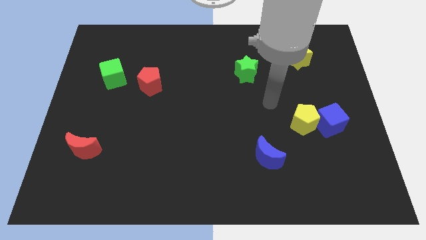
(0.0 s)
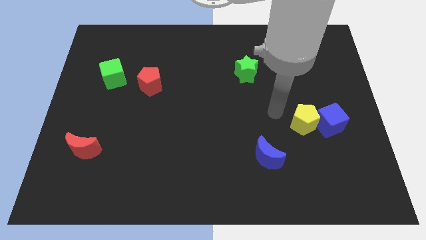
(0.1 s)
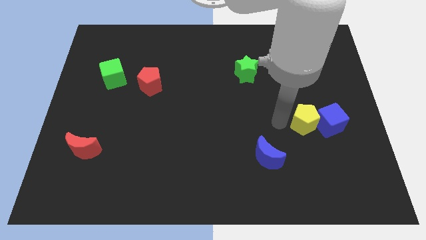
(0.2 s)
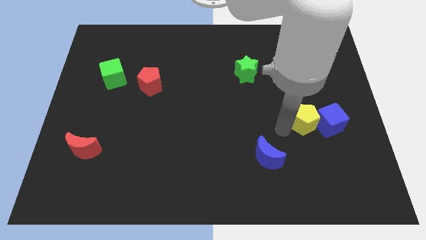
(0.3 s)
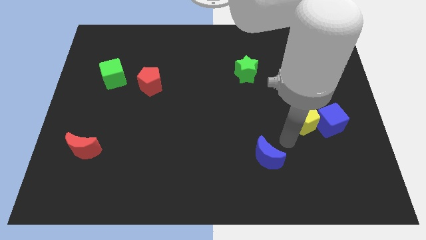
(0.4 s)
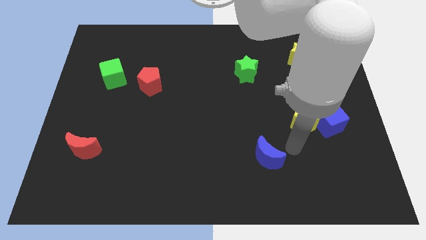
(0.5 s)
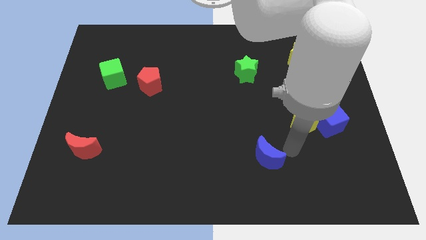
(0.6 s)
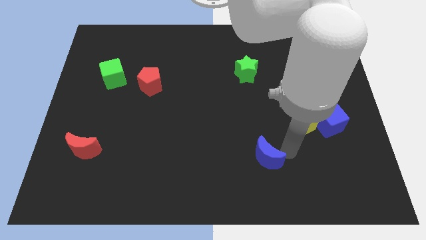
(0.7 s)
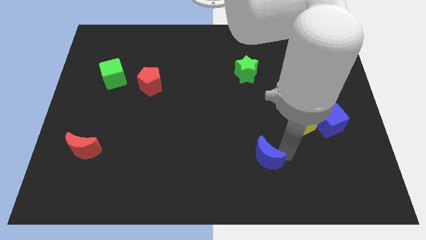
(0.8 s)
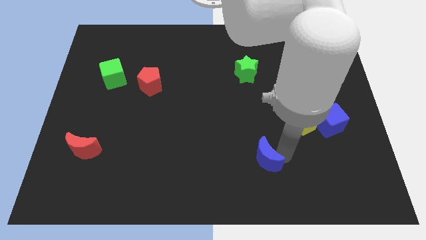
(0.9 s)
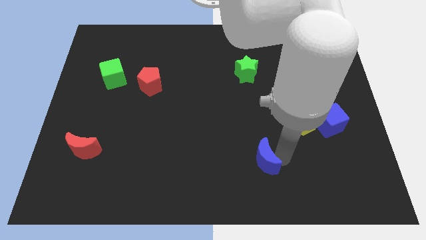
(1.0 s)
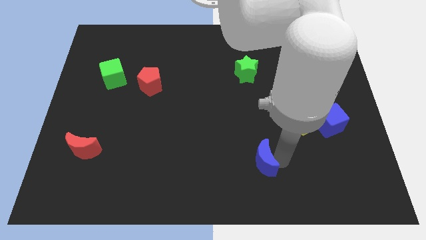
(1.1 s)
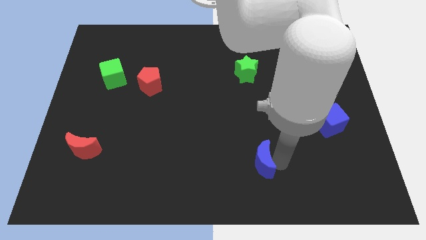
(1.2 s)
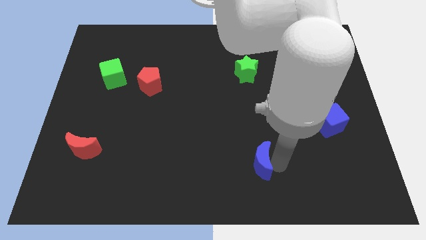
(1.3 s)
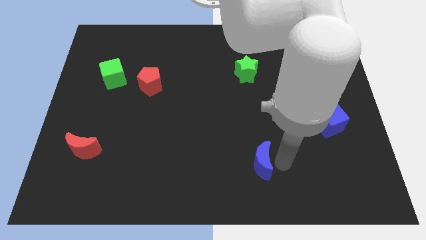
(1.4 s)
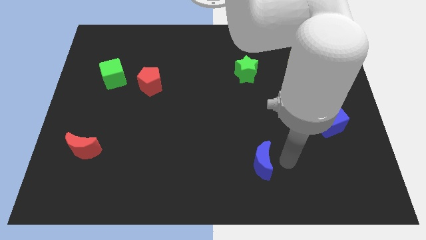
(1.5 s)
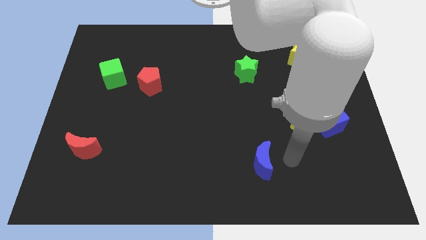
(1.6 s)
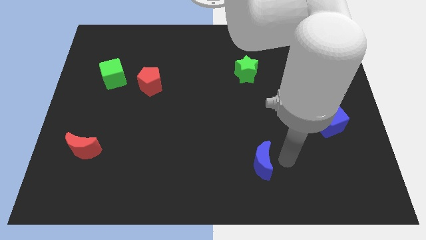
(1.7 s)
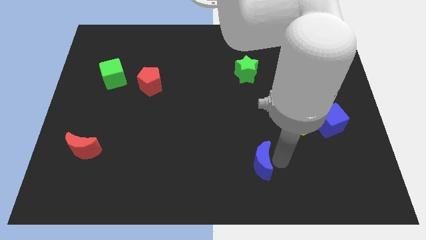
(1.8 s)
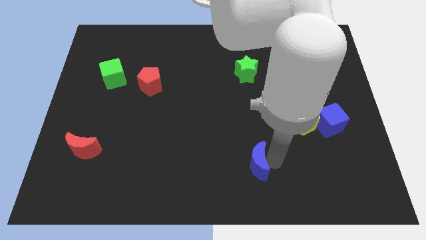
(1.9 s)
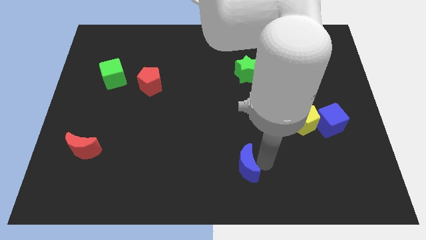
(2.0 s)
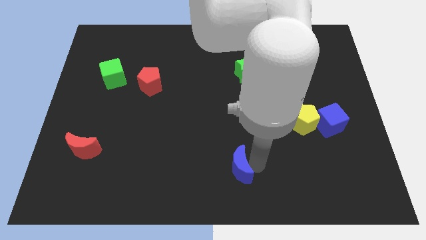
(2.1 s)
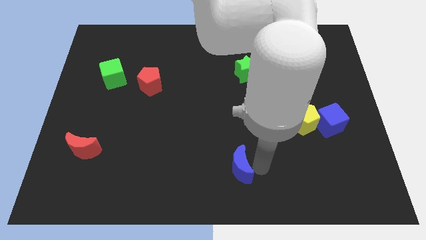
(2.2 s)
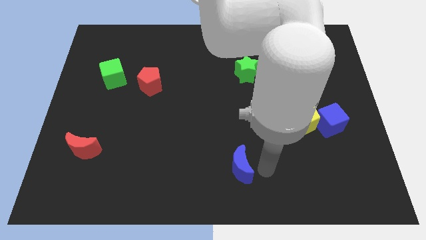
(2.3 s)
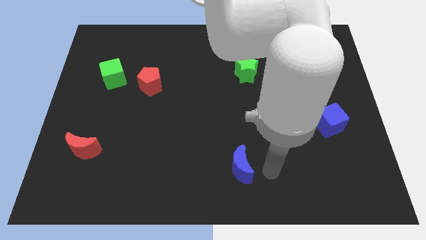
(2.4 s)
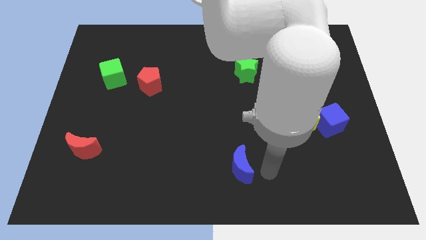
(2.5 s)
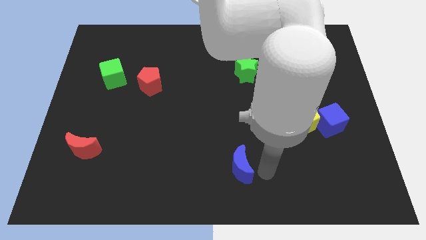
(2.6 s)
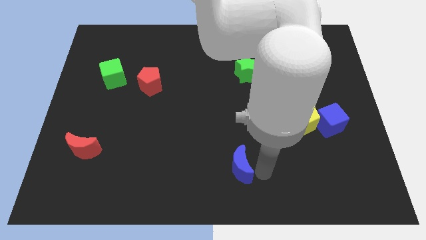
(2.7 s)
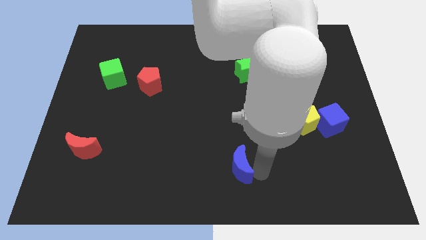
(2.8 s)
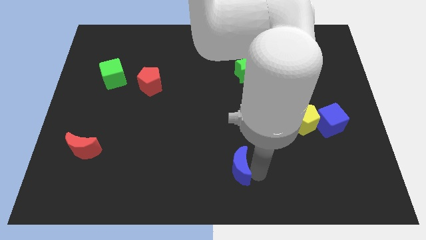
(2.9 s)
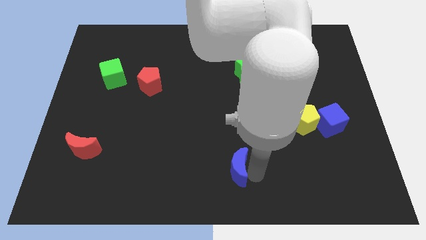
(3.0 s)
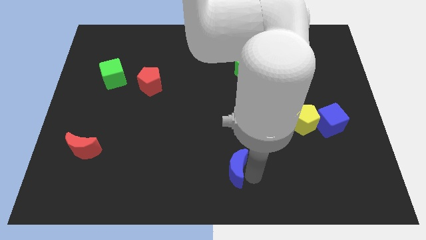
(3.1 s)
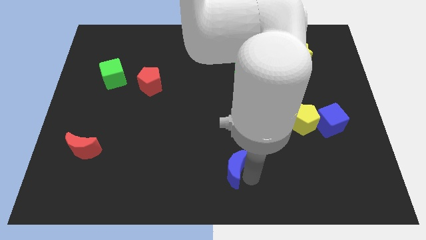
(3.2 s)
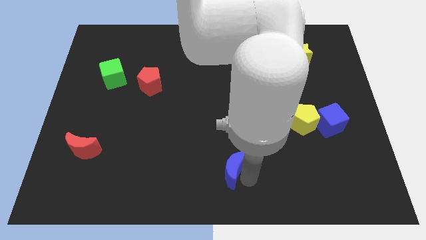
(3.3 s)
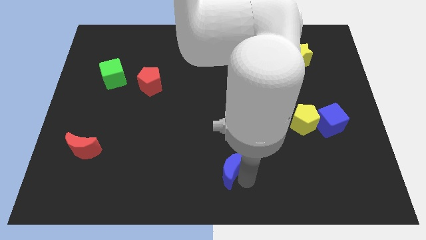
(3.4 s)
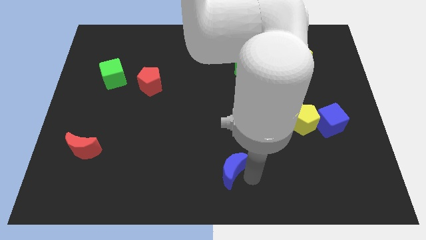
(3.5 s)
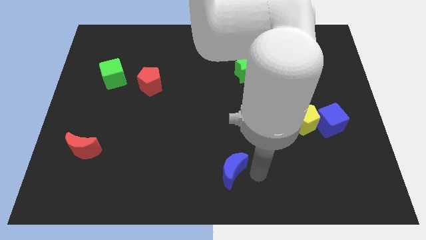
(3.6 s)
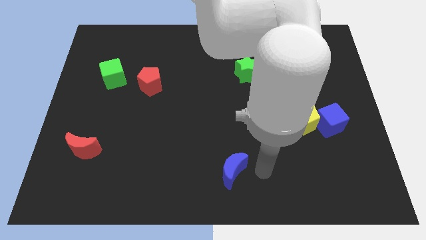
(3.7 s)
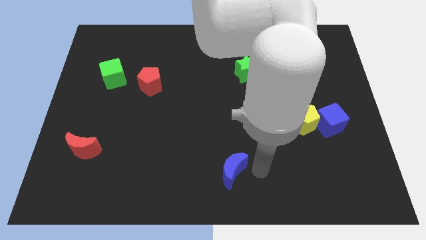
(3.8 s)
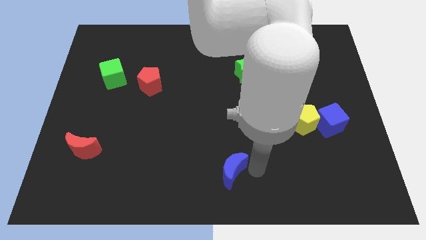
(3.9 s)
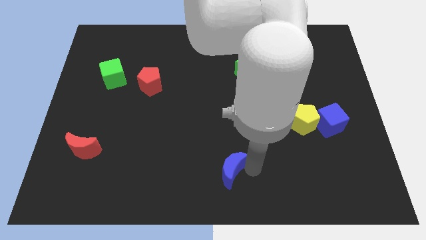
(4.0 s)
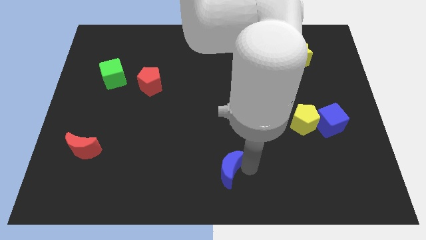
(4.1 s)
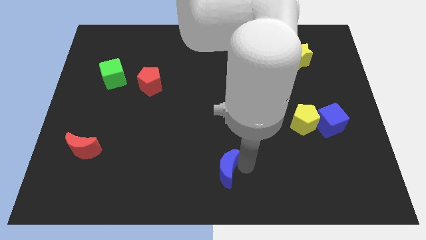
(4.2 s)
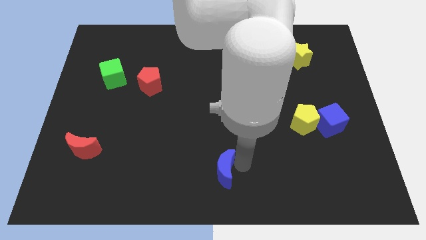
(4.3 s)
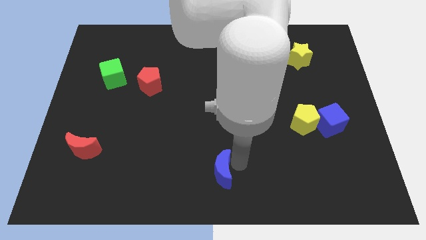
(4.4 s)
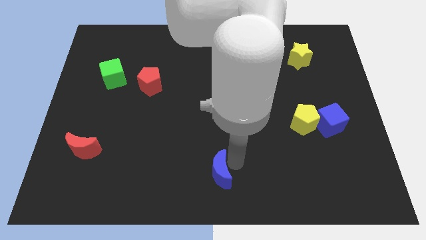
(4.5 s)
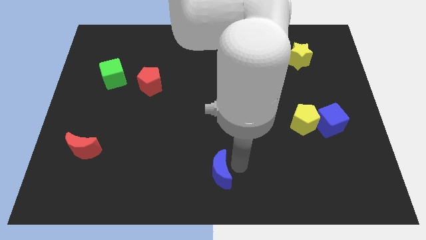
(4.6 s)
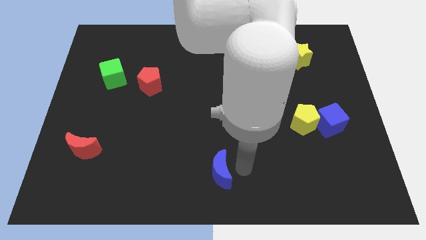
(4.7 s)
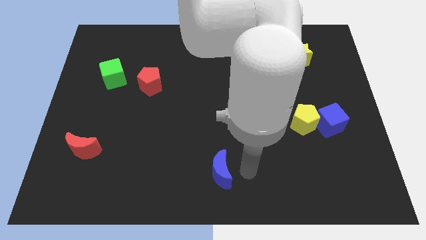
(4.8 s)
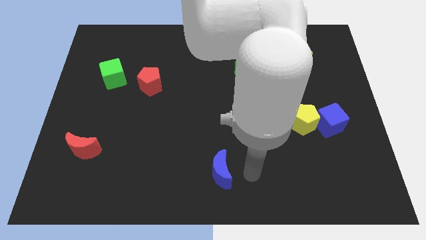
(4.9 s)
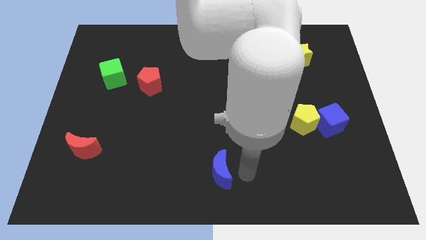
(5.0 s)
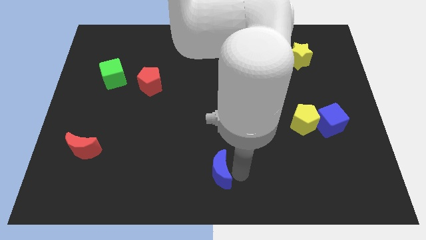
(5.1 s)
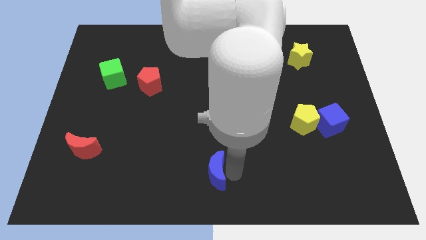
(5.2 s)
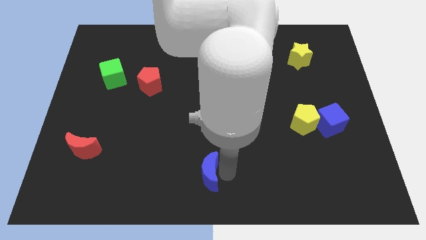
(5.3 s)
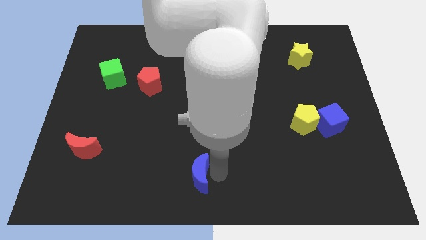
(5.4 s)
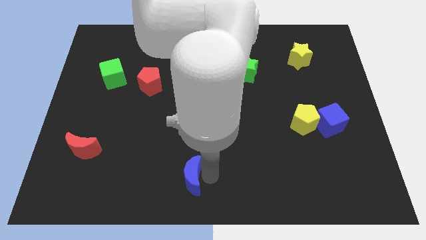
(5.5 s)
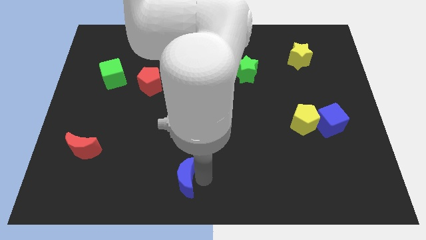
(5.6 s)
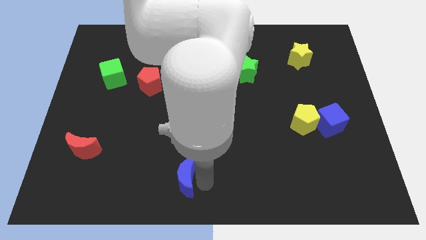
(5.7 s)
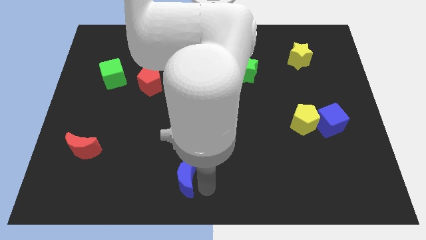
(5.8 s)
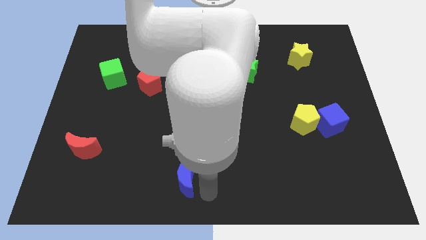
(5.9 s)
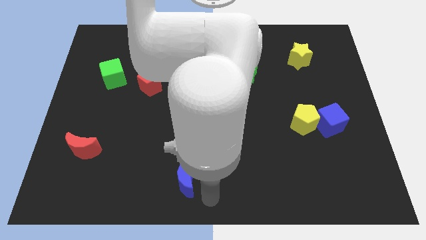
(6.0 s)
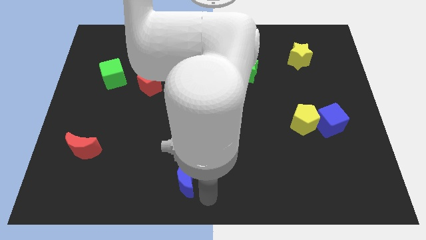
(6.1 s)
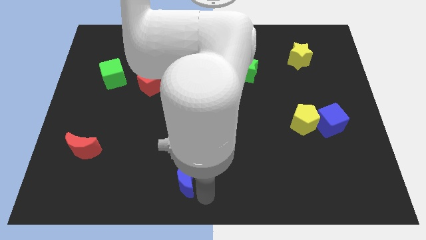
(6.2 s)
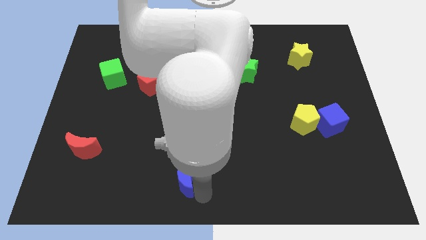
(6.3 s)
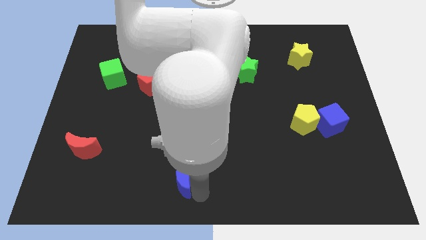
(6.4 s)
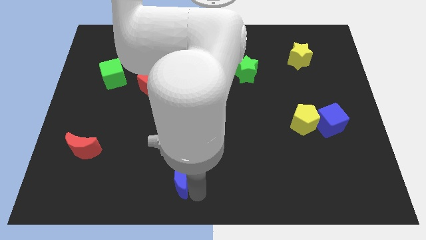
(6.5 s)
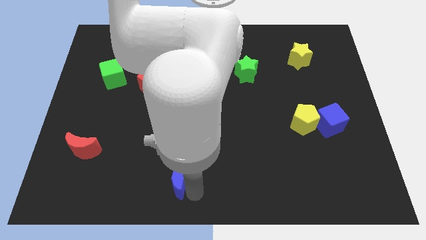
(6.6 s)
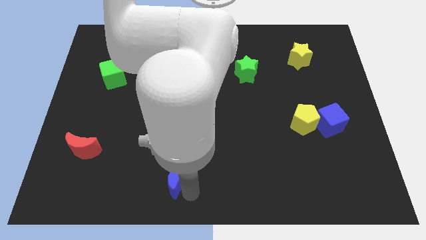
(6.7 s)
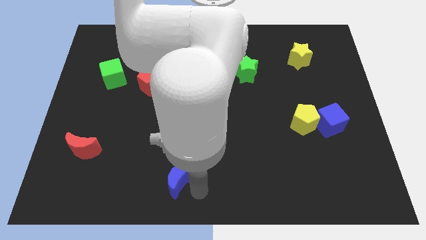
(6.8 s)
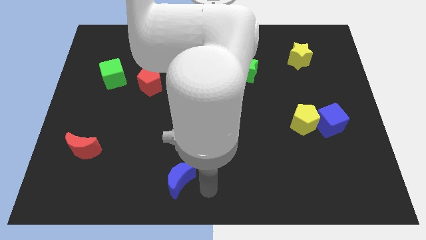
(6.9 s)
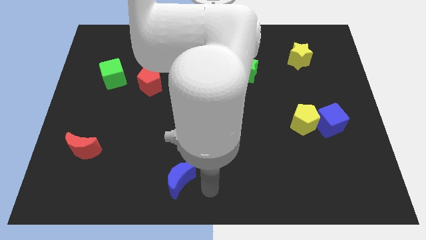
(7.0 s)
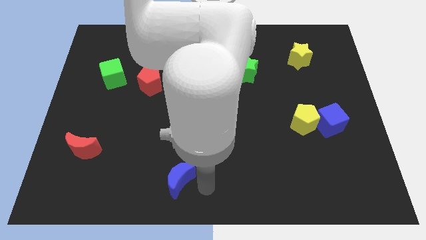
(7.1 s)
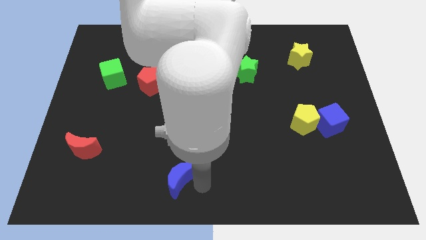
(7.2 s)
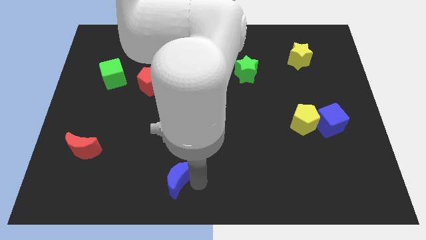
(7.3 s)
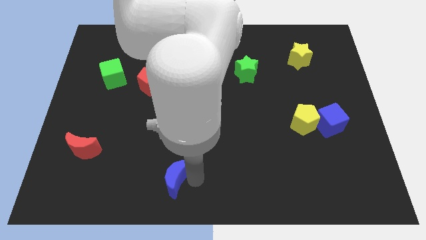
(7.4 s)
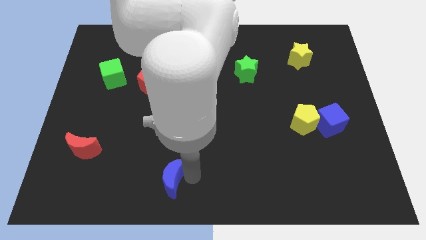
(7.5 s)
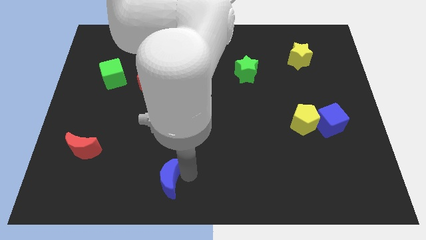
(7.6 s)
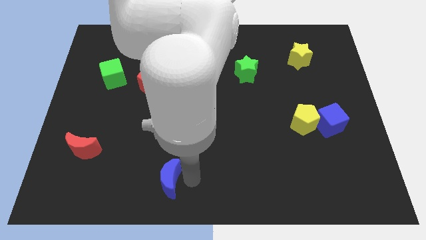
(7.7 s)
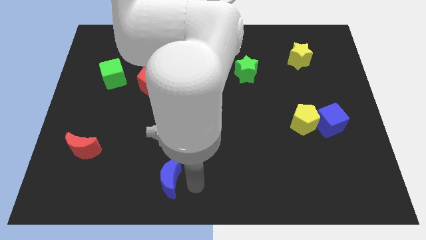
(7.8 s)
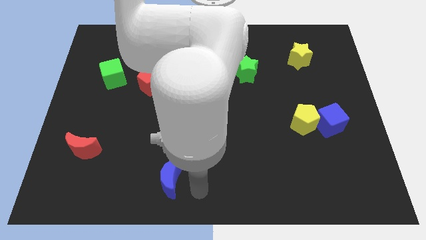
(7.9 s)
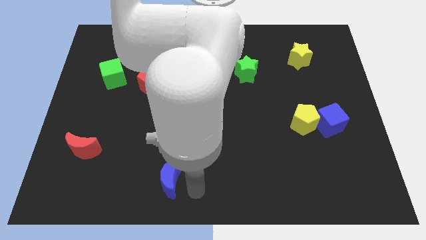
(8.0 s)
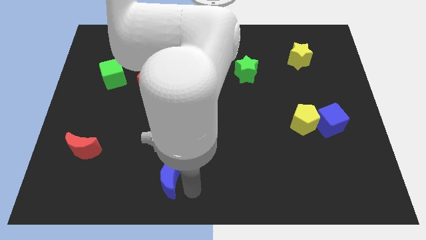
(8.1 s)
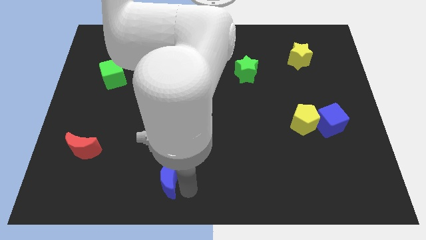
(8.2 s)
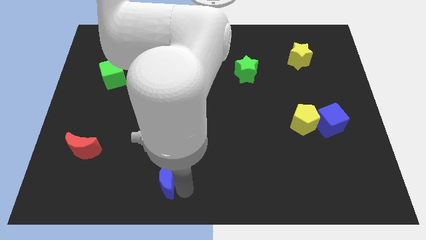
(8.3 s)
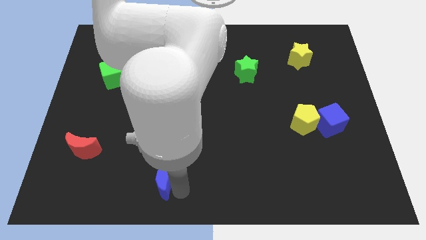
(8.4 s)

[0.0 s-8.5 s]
push the blue moon left
